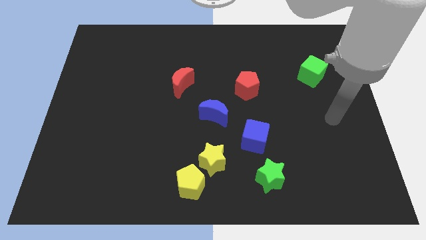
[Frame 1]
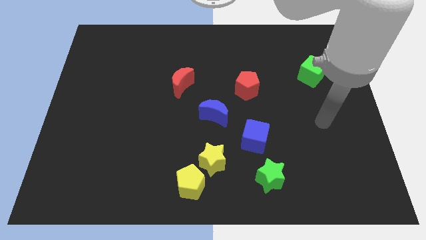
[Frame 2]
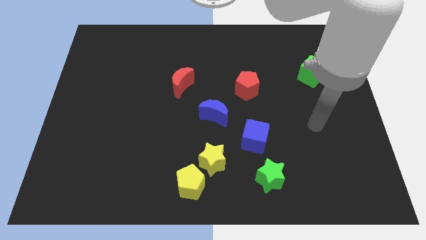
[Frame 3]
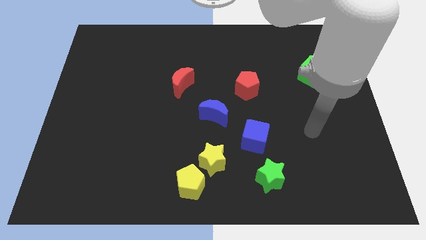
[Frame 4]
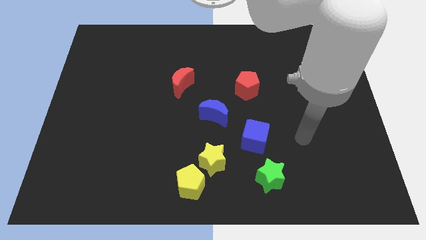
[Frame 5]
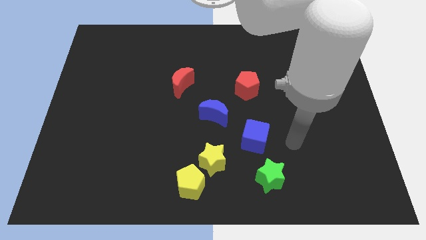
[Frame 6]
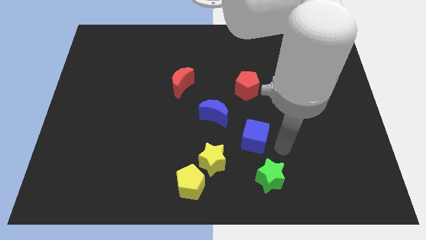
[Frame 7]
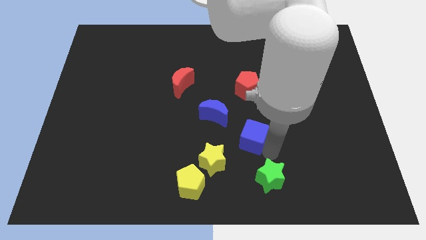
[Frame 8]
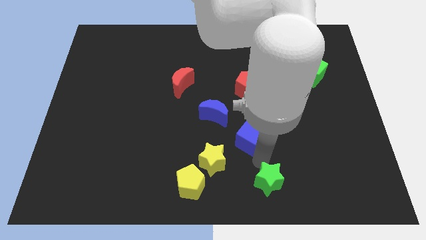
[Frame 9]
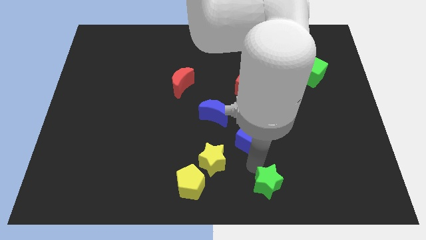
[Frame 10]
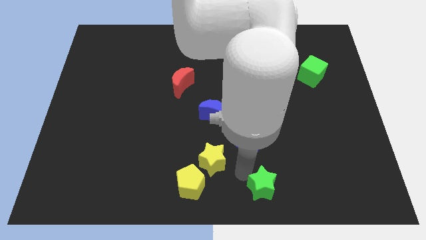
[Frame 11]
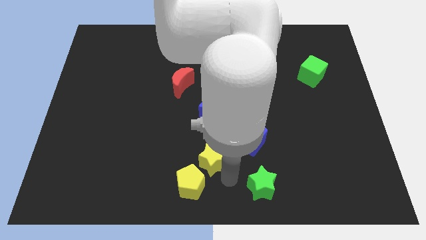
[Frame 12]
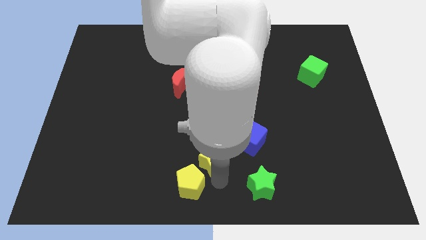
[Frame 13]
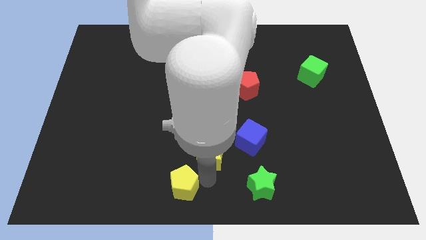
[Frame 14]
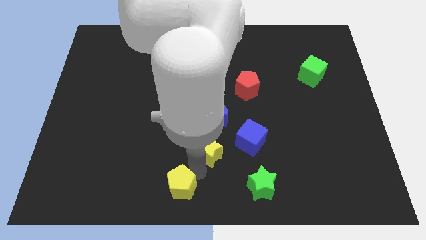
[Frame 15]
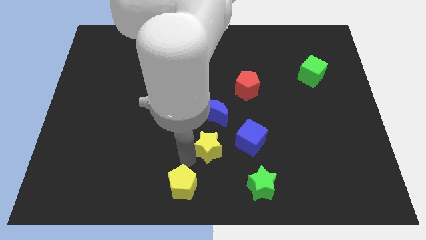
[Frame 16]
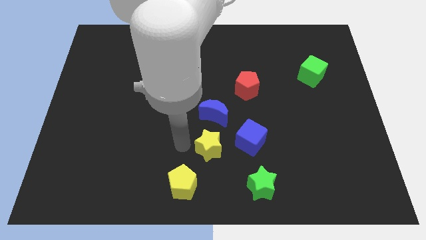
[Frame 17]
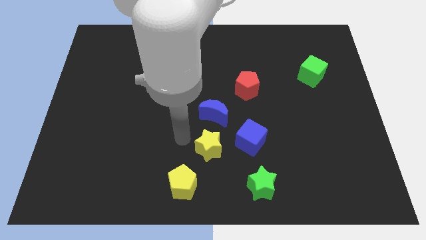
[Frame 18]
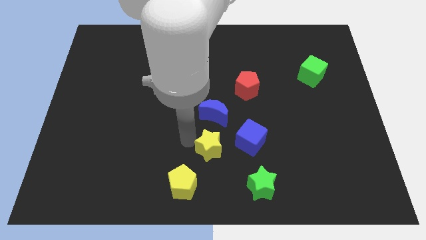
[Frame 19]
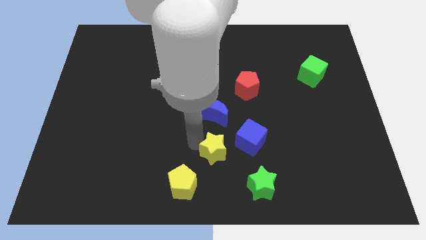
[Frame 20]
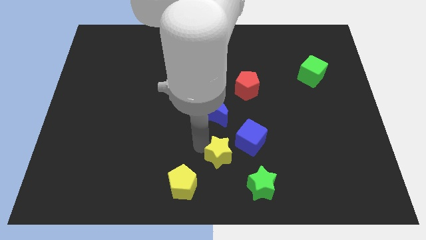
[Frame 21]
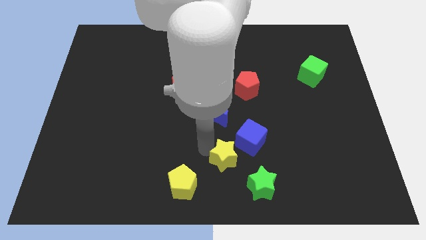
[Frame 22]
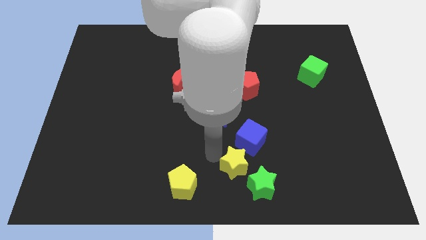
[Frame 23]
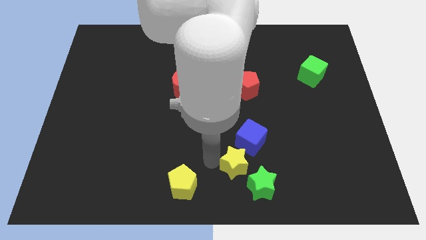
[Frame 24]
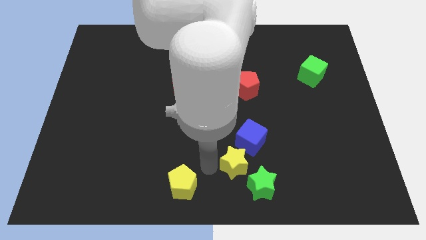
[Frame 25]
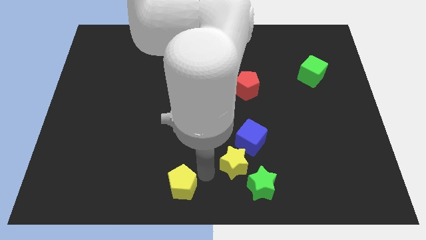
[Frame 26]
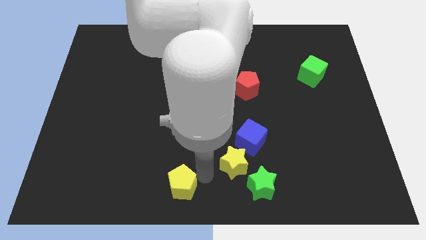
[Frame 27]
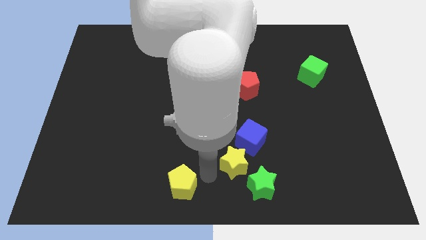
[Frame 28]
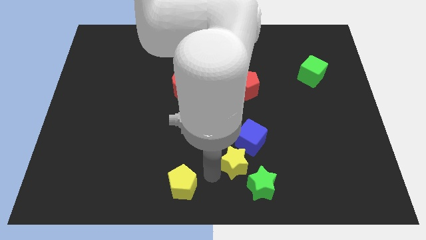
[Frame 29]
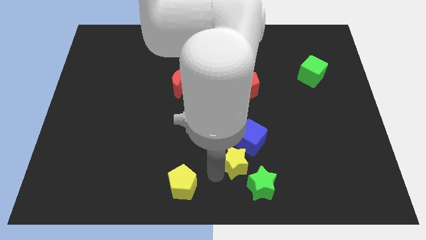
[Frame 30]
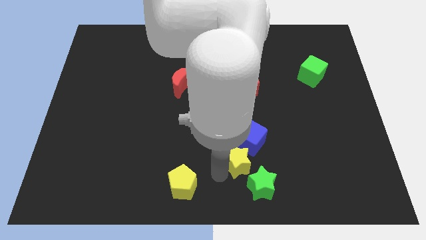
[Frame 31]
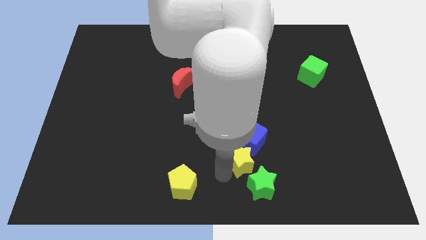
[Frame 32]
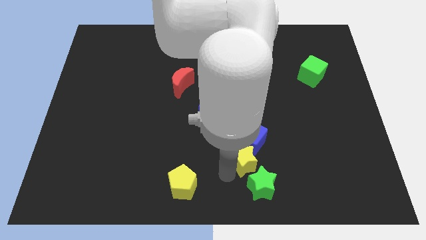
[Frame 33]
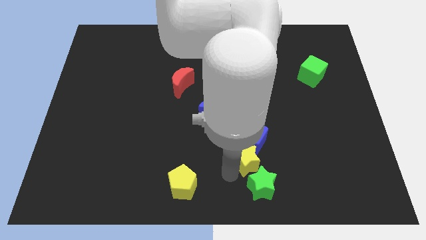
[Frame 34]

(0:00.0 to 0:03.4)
move the yellow star somewhat right

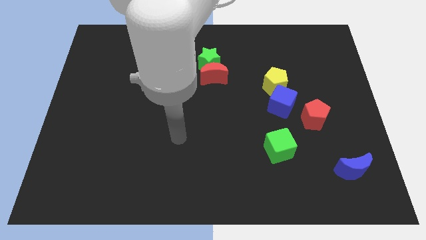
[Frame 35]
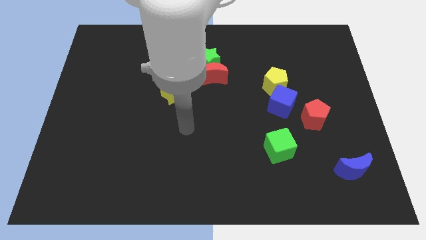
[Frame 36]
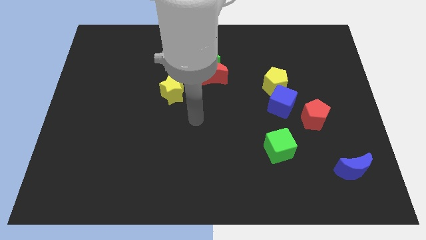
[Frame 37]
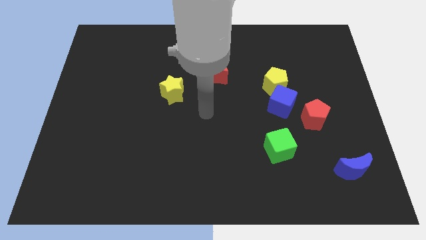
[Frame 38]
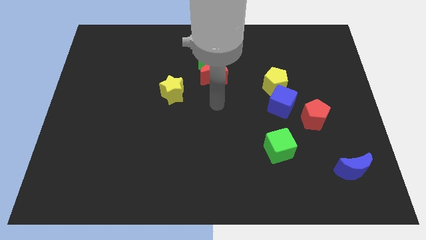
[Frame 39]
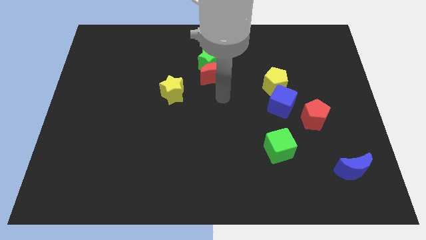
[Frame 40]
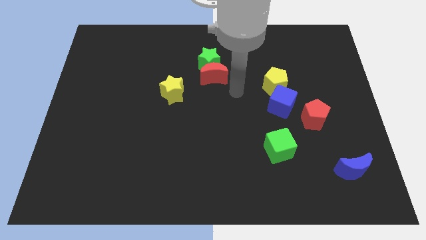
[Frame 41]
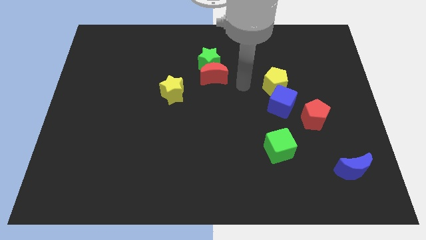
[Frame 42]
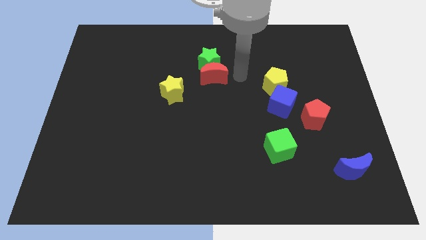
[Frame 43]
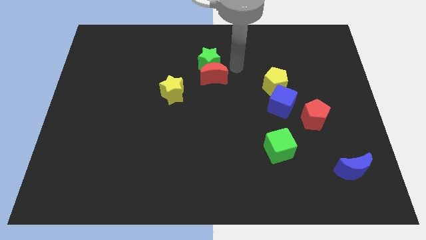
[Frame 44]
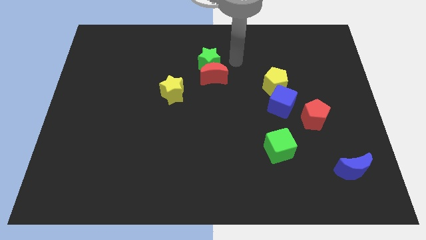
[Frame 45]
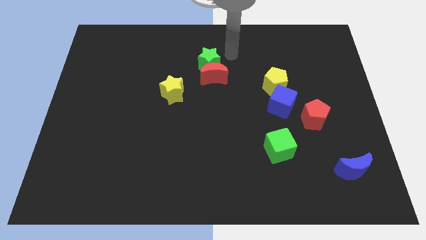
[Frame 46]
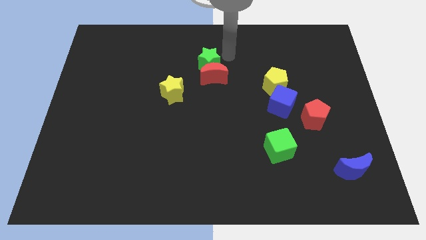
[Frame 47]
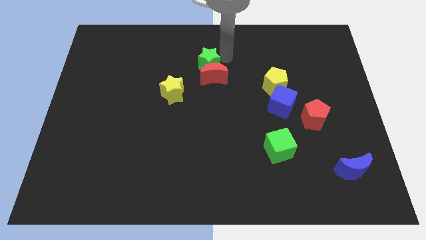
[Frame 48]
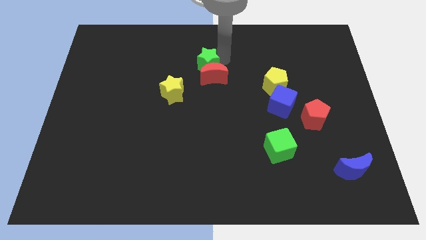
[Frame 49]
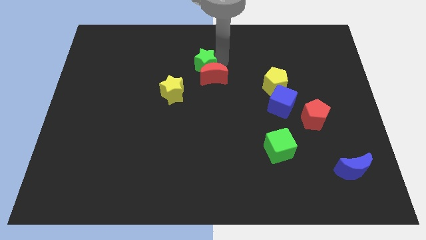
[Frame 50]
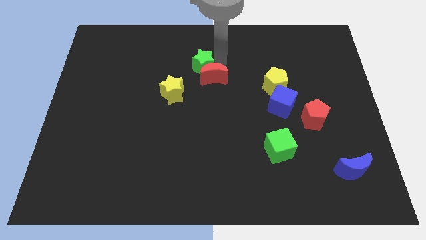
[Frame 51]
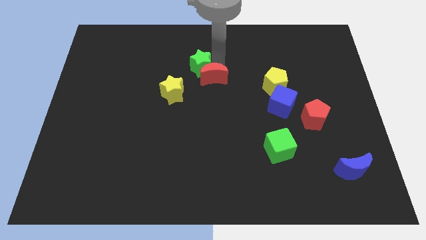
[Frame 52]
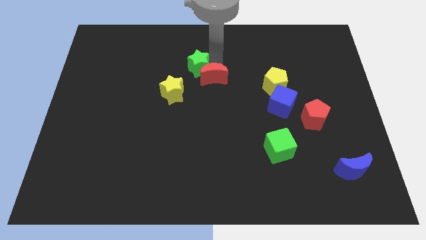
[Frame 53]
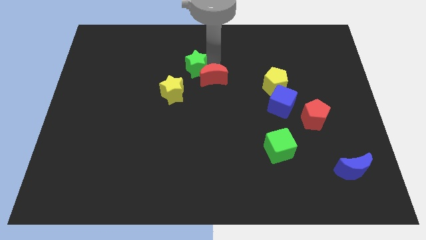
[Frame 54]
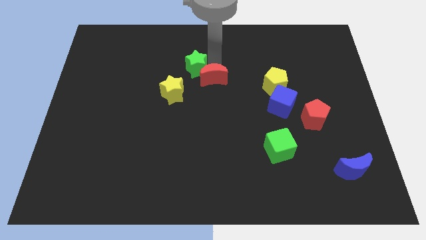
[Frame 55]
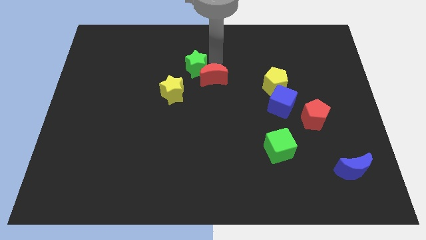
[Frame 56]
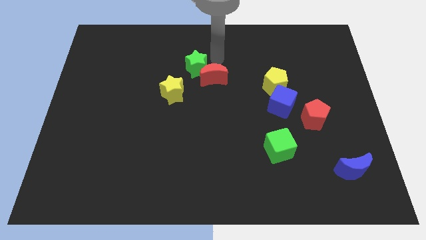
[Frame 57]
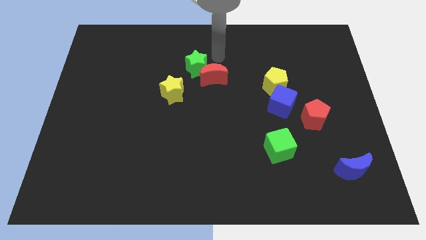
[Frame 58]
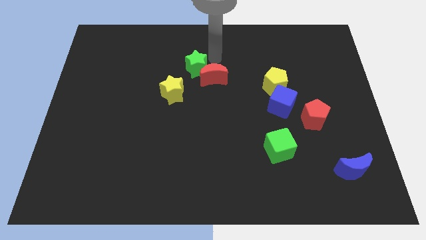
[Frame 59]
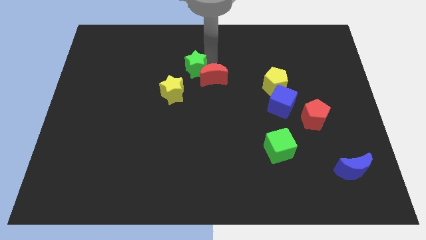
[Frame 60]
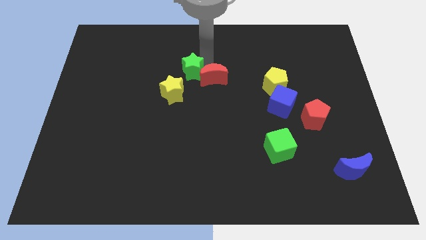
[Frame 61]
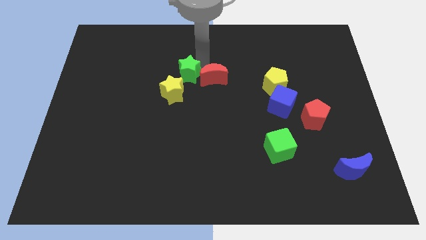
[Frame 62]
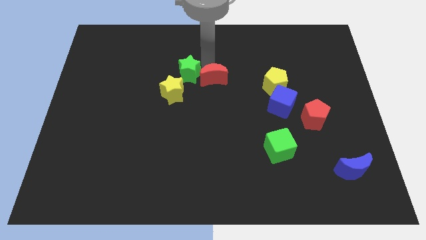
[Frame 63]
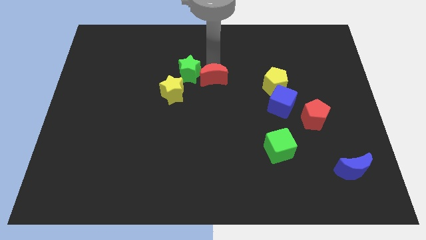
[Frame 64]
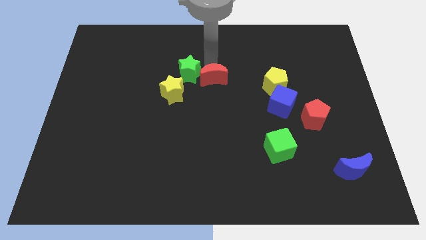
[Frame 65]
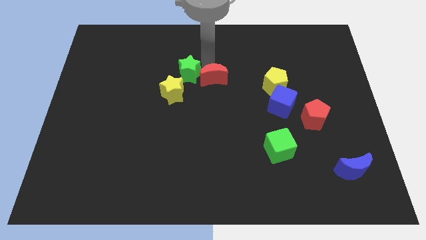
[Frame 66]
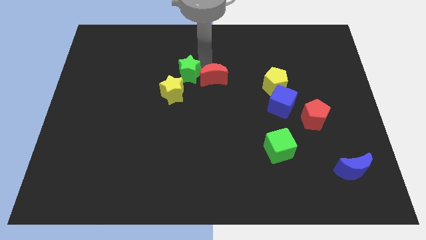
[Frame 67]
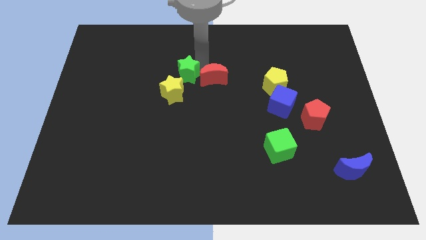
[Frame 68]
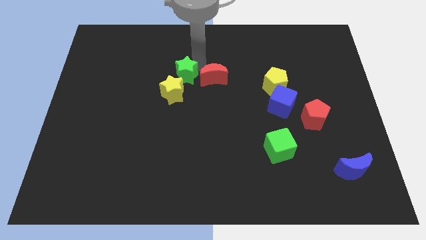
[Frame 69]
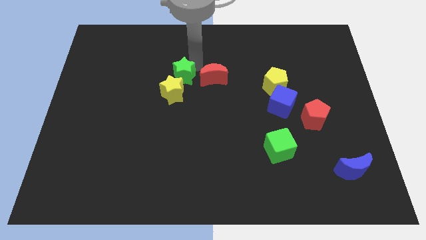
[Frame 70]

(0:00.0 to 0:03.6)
move the green star downwards and left somewhat

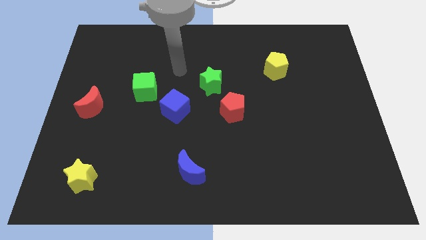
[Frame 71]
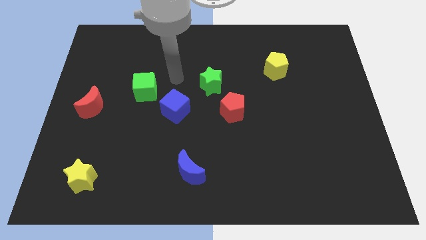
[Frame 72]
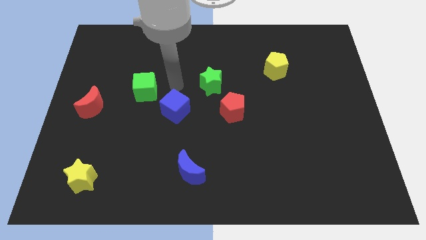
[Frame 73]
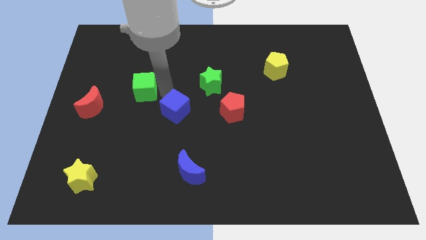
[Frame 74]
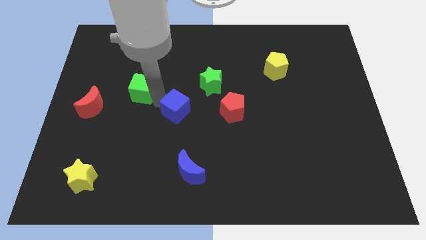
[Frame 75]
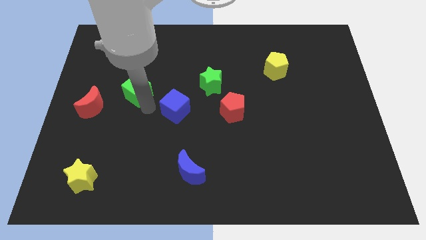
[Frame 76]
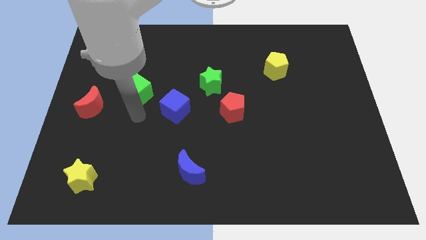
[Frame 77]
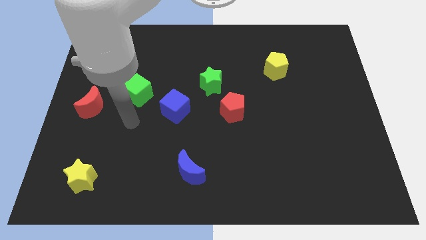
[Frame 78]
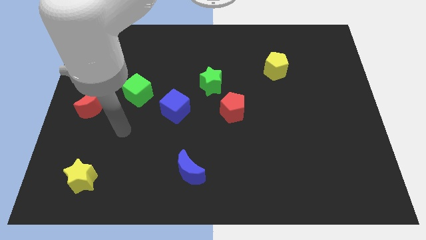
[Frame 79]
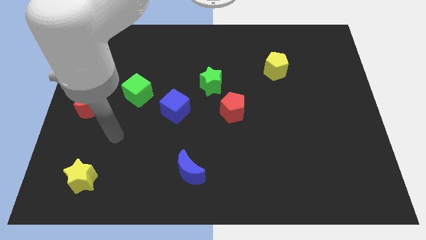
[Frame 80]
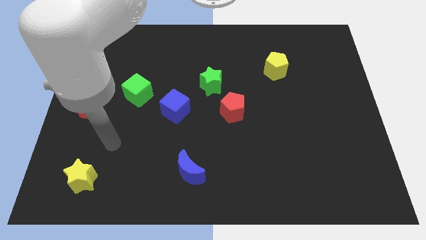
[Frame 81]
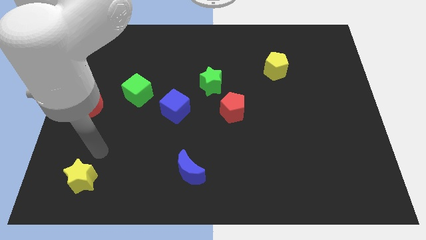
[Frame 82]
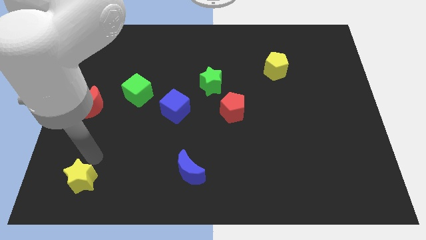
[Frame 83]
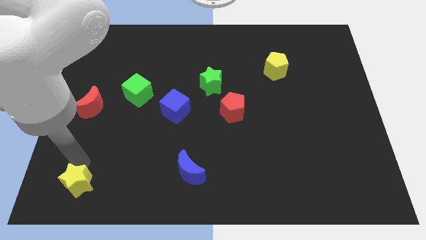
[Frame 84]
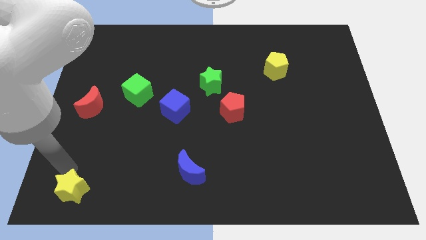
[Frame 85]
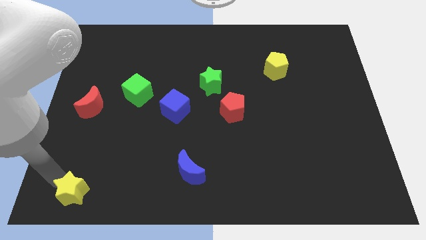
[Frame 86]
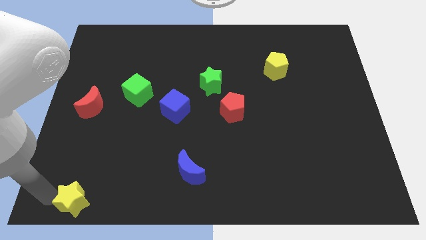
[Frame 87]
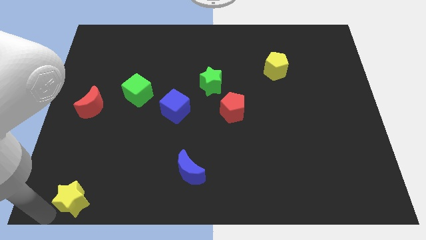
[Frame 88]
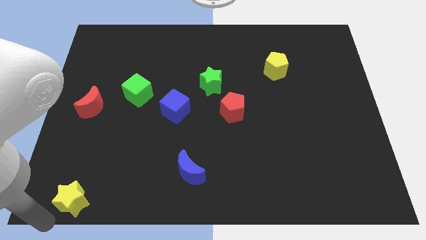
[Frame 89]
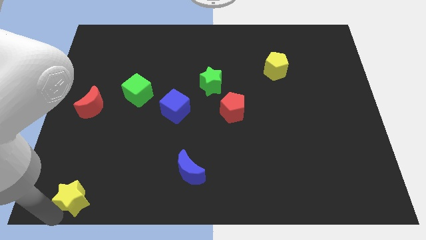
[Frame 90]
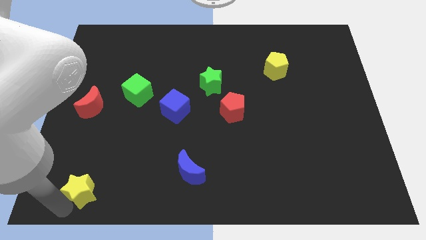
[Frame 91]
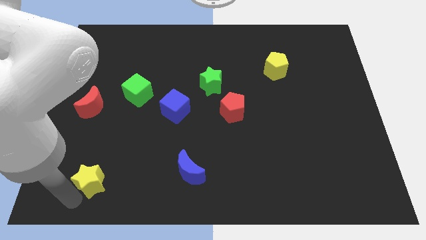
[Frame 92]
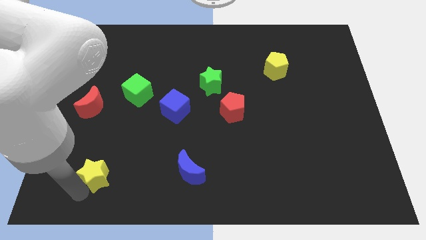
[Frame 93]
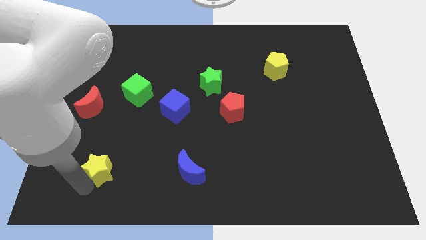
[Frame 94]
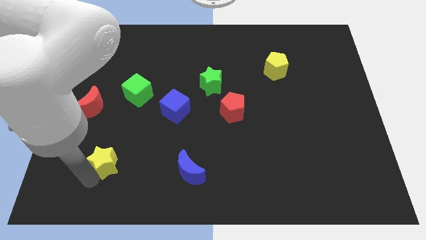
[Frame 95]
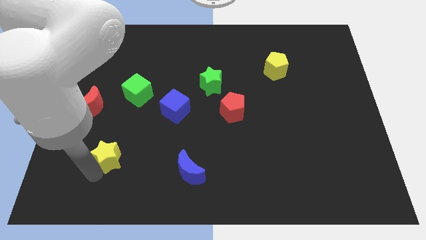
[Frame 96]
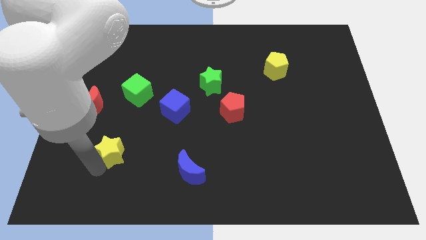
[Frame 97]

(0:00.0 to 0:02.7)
move the yellow star upwards and right diagonally a little bit
